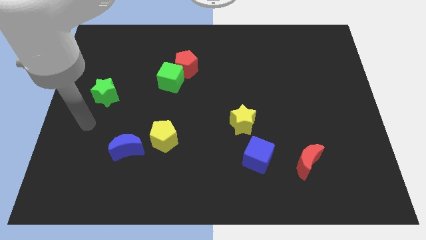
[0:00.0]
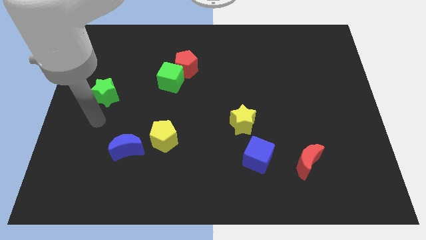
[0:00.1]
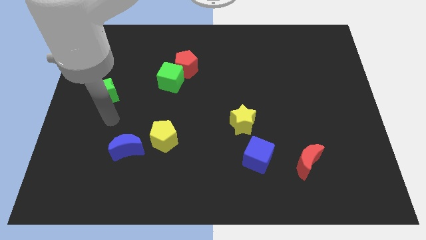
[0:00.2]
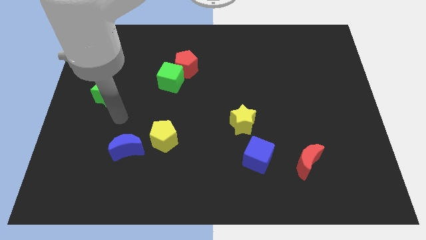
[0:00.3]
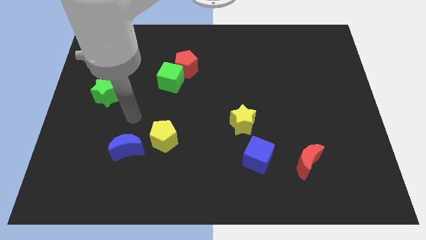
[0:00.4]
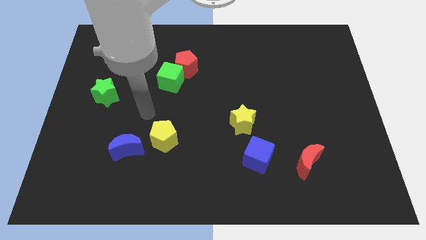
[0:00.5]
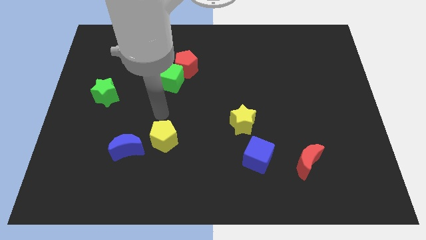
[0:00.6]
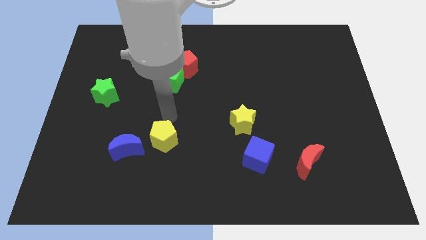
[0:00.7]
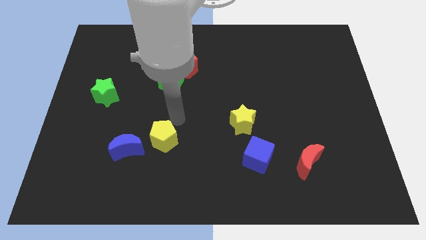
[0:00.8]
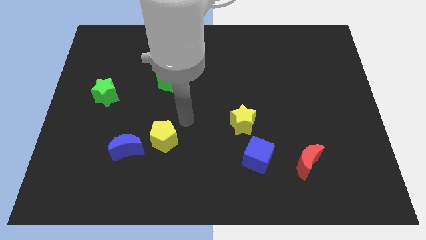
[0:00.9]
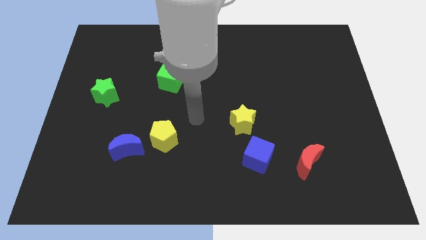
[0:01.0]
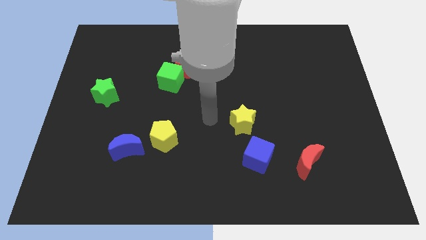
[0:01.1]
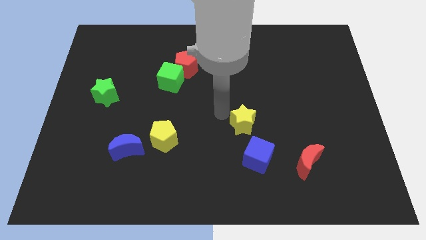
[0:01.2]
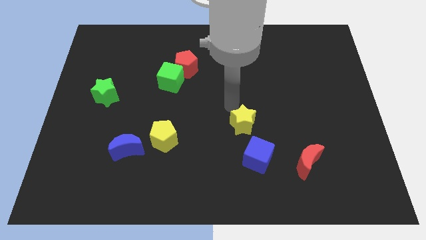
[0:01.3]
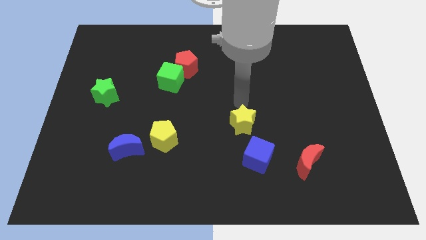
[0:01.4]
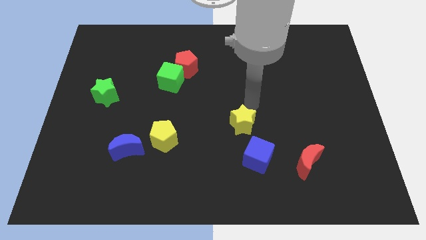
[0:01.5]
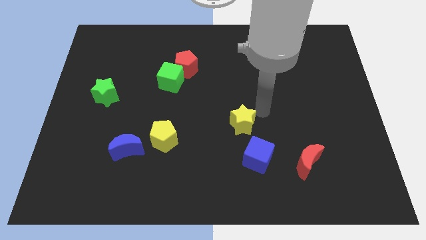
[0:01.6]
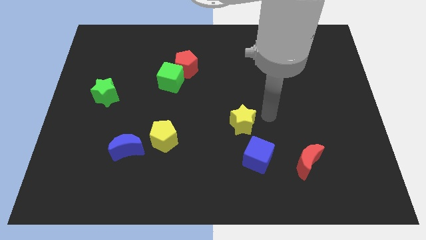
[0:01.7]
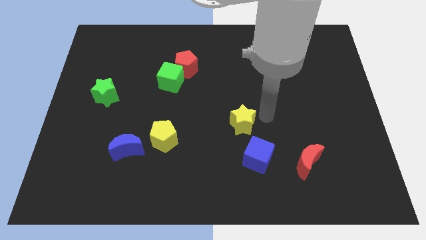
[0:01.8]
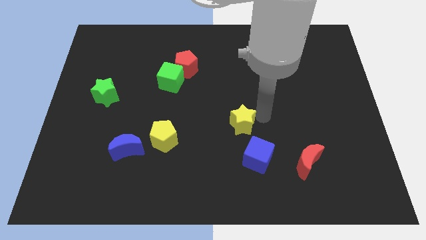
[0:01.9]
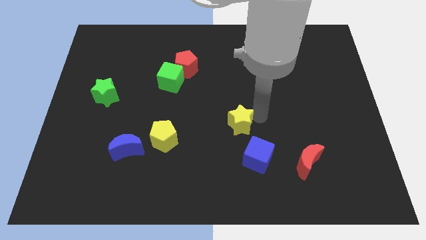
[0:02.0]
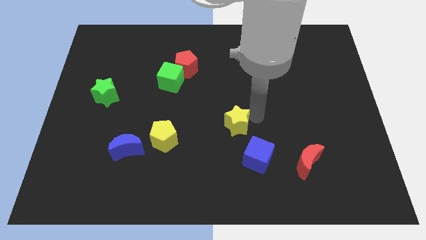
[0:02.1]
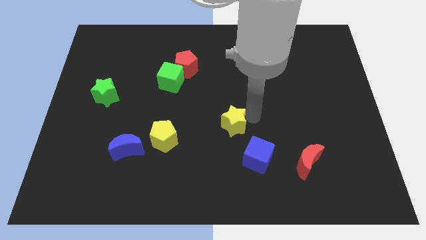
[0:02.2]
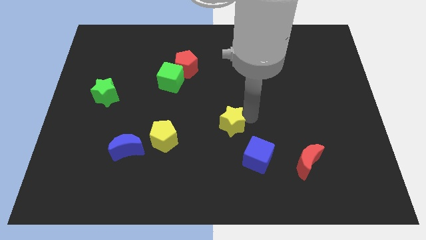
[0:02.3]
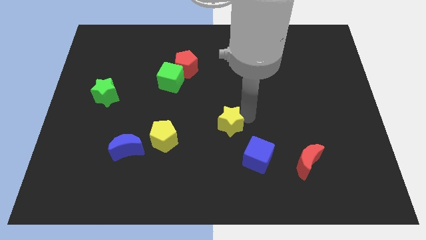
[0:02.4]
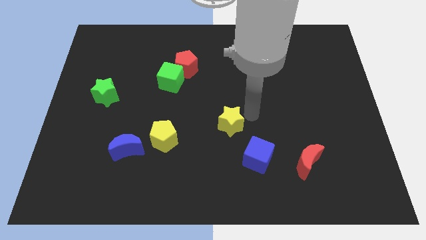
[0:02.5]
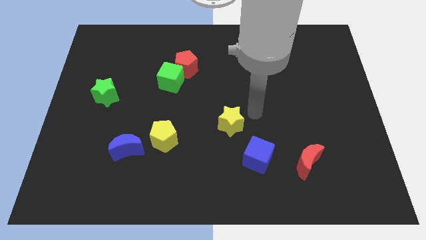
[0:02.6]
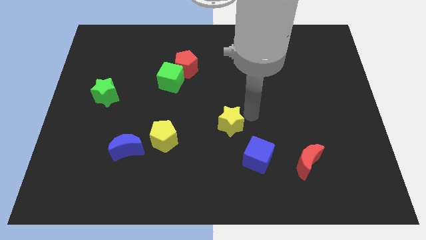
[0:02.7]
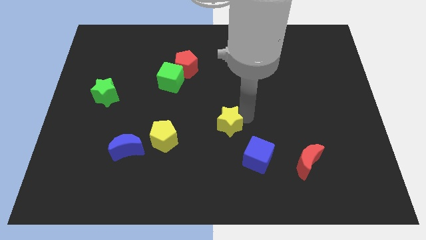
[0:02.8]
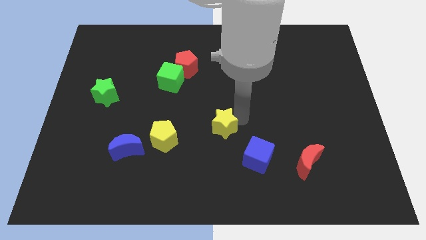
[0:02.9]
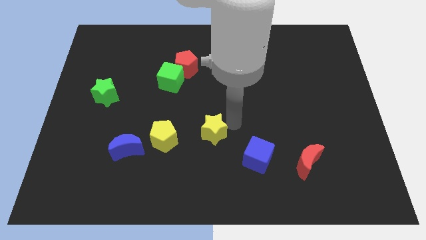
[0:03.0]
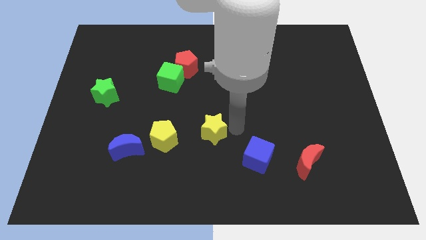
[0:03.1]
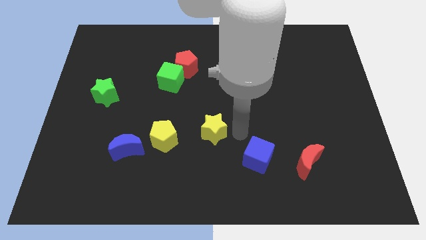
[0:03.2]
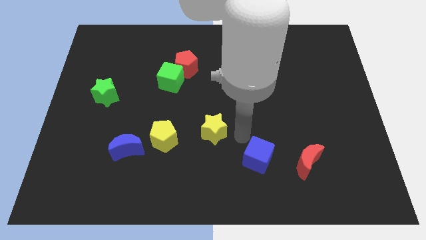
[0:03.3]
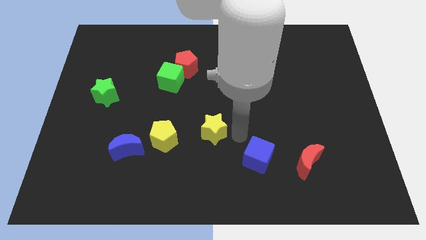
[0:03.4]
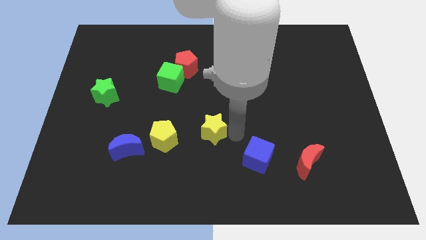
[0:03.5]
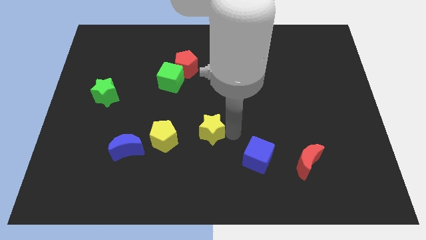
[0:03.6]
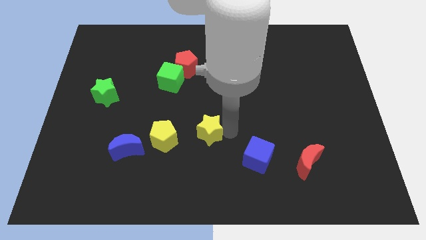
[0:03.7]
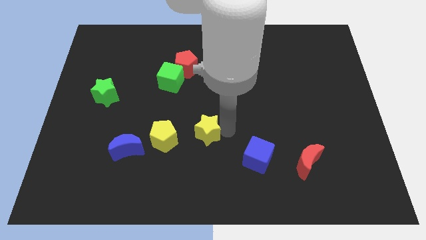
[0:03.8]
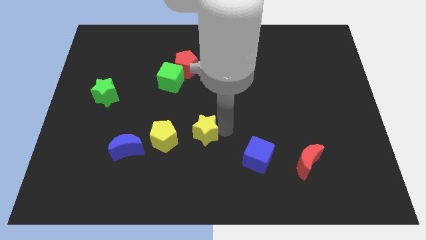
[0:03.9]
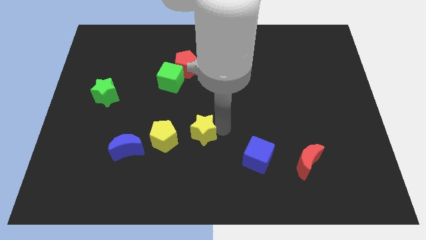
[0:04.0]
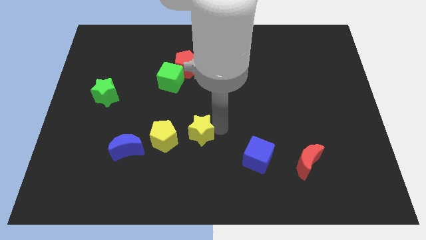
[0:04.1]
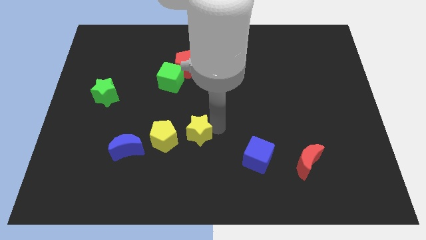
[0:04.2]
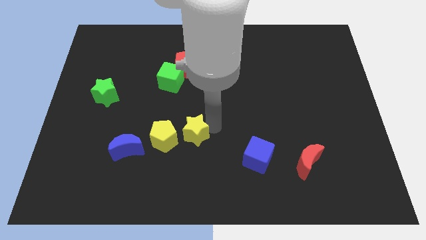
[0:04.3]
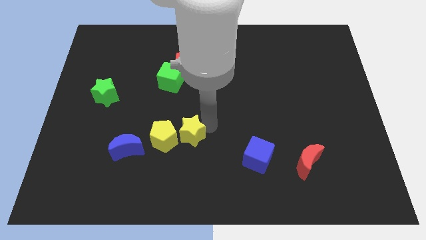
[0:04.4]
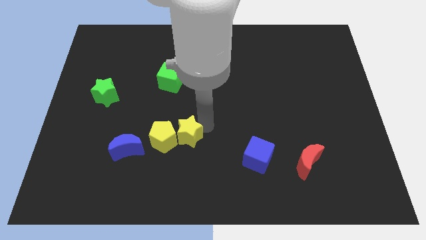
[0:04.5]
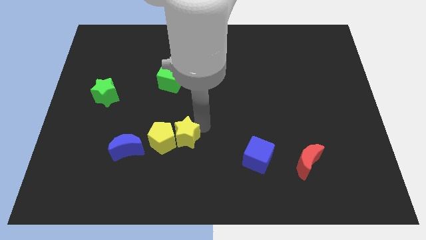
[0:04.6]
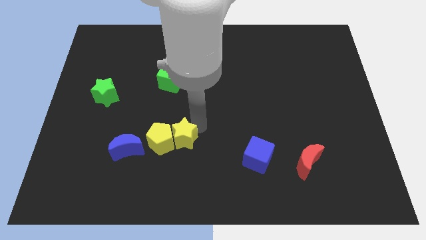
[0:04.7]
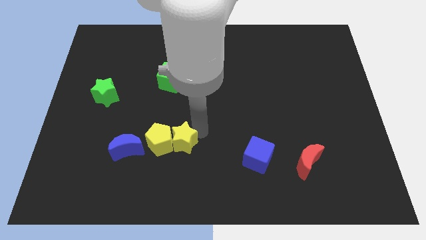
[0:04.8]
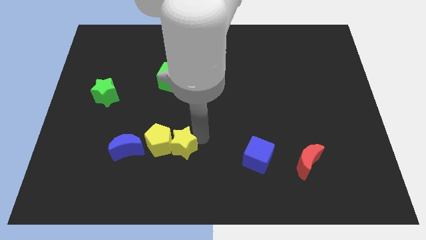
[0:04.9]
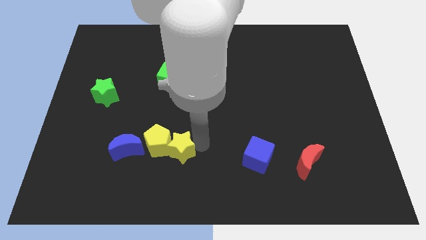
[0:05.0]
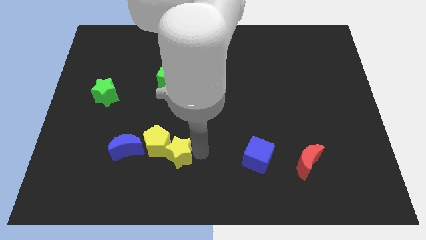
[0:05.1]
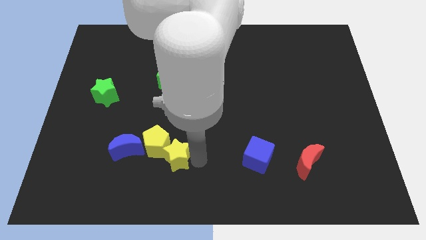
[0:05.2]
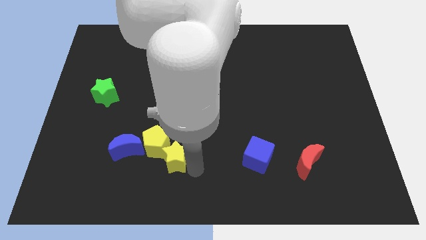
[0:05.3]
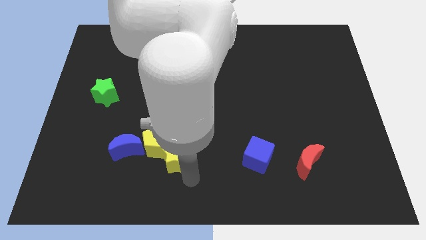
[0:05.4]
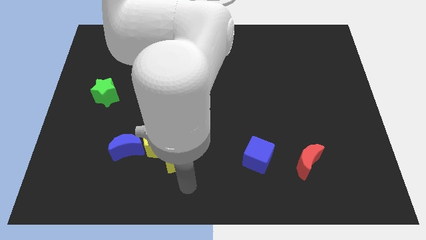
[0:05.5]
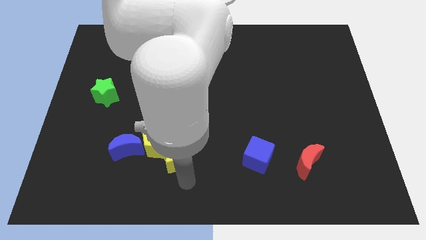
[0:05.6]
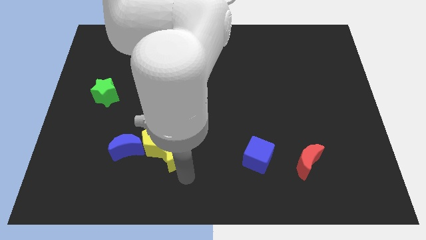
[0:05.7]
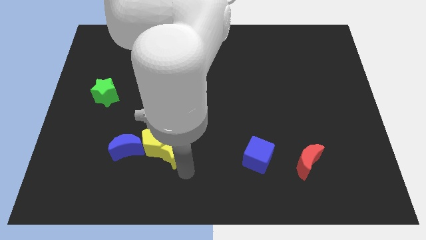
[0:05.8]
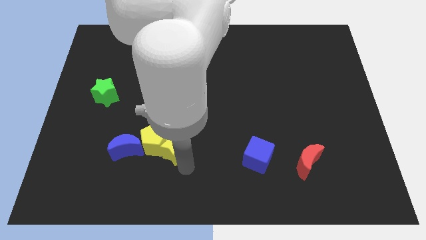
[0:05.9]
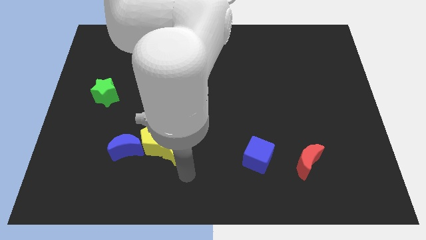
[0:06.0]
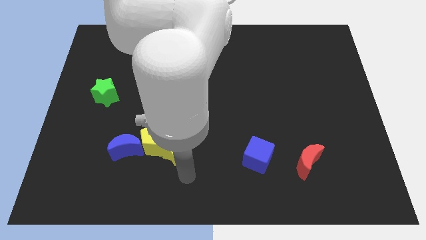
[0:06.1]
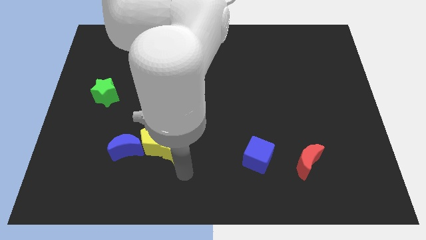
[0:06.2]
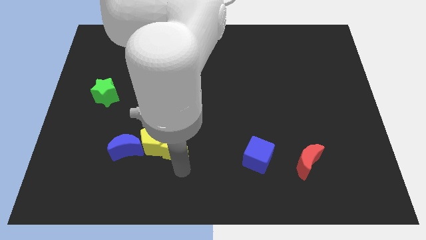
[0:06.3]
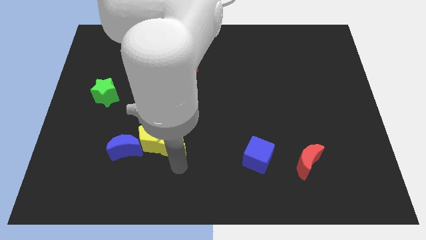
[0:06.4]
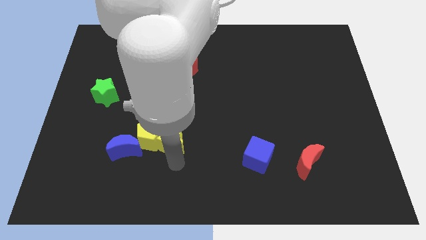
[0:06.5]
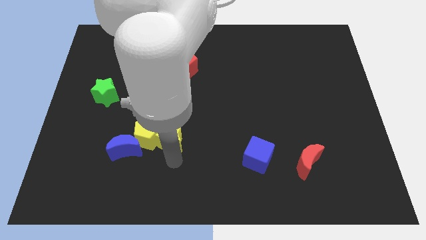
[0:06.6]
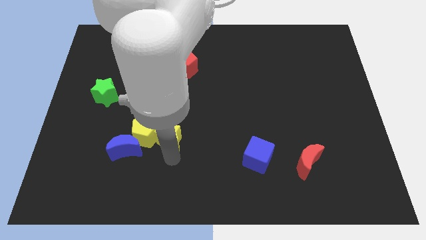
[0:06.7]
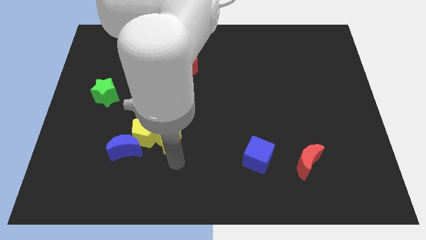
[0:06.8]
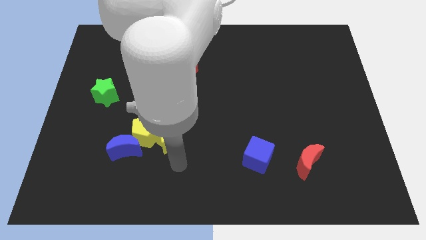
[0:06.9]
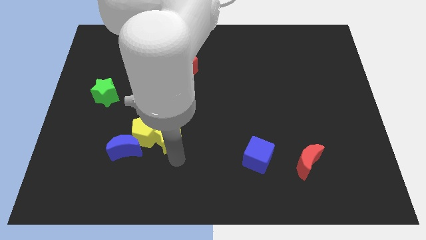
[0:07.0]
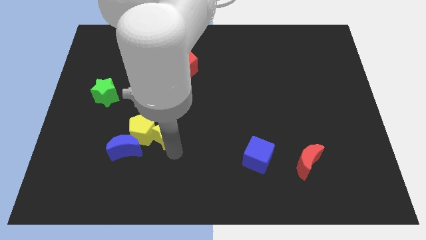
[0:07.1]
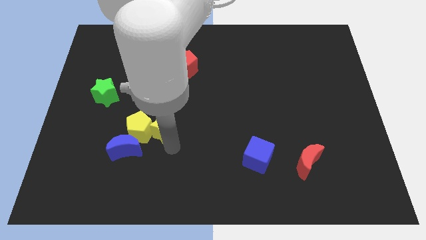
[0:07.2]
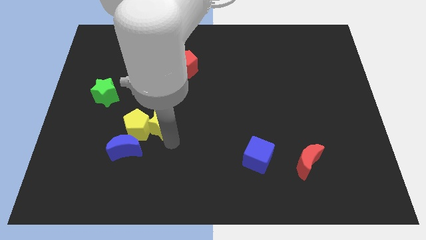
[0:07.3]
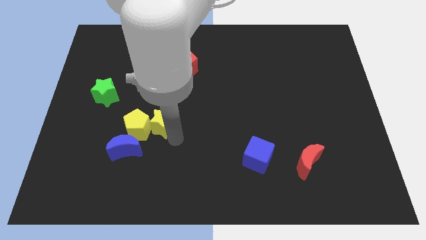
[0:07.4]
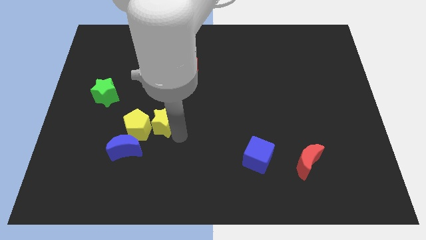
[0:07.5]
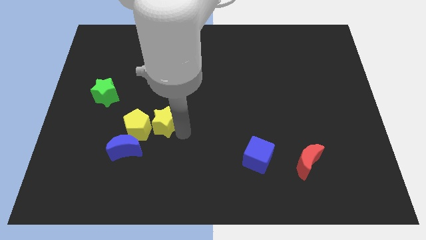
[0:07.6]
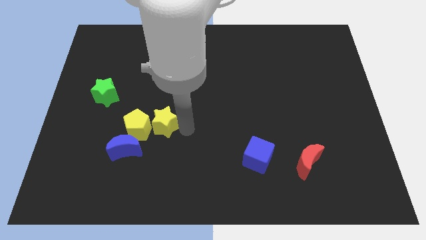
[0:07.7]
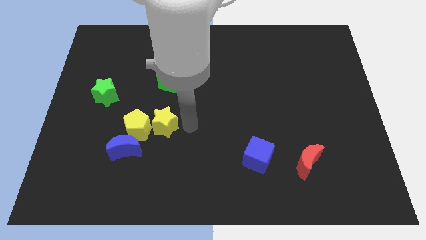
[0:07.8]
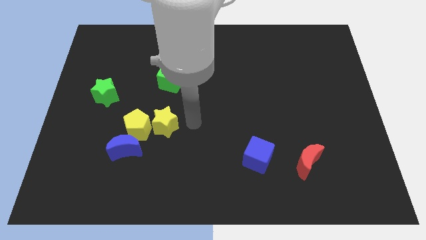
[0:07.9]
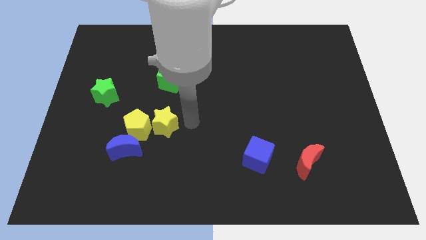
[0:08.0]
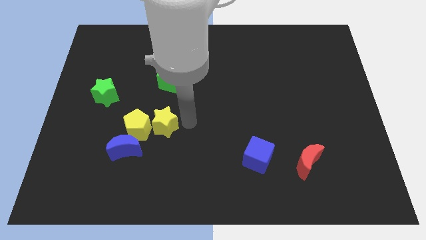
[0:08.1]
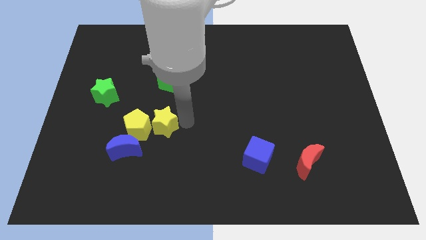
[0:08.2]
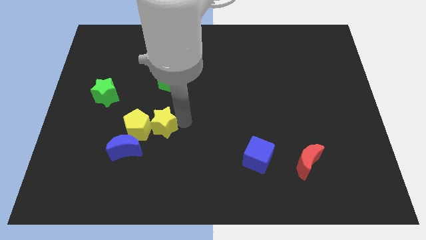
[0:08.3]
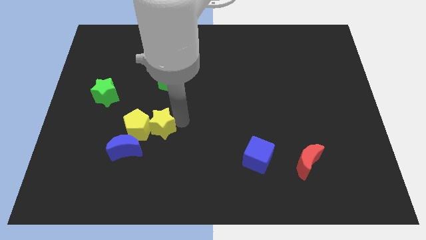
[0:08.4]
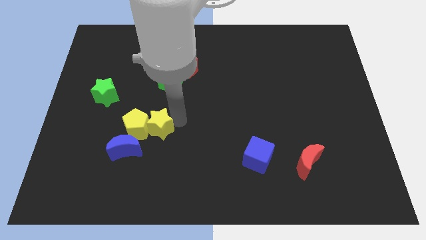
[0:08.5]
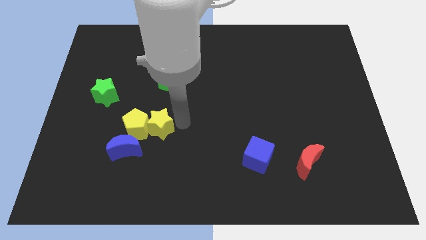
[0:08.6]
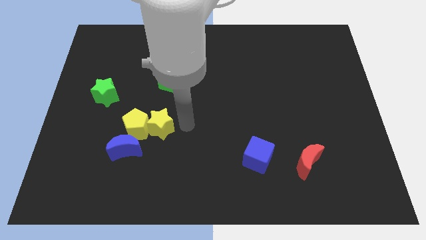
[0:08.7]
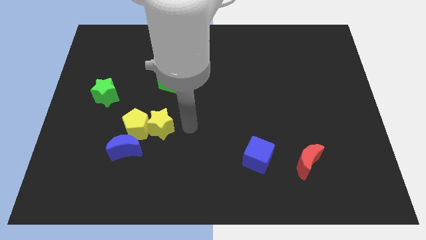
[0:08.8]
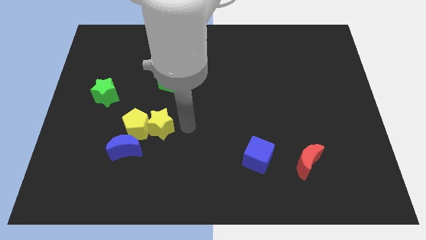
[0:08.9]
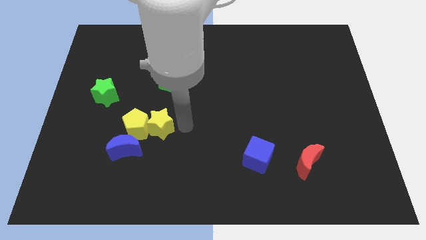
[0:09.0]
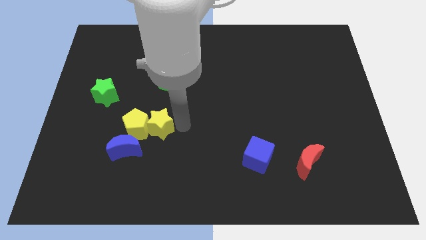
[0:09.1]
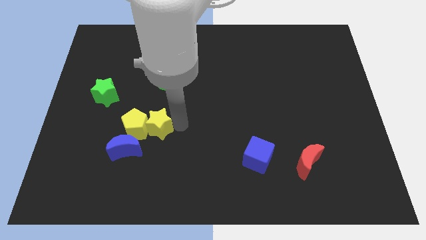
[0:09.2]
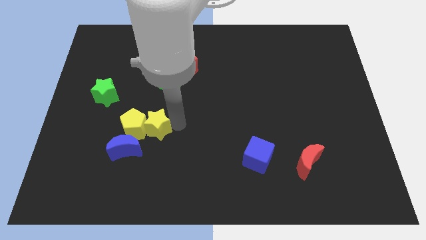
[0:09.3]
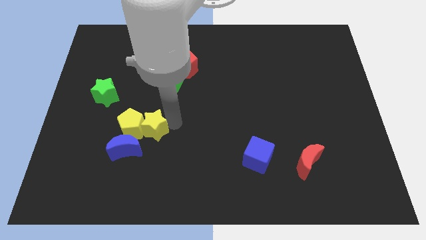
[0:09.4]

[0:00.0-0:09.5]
slide the yellow star left
